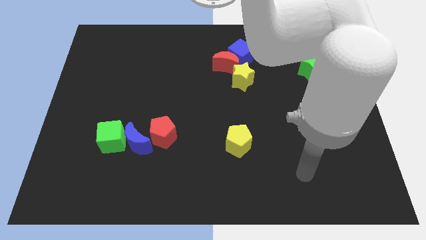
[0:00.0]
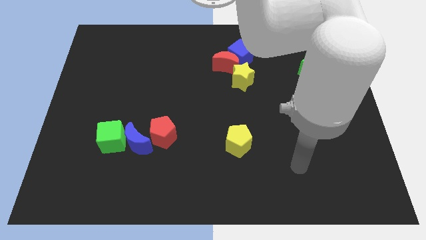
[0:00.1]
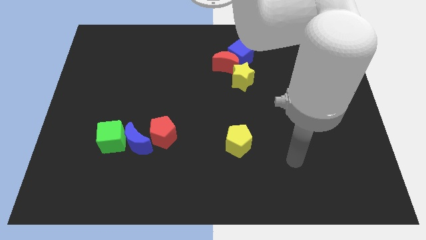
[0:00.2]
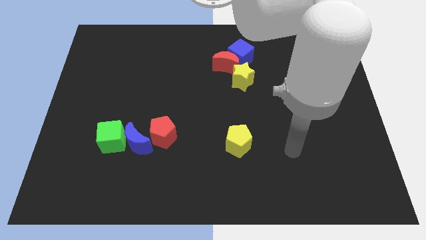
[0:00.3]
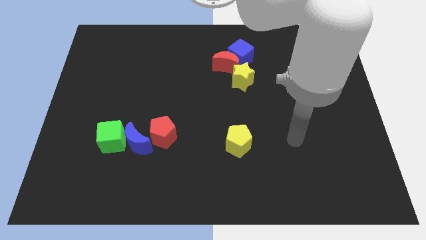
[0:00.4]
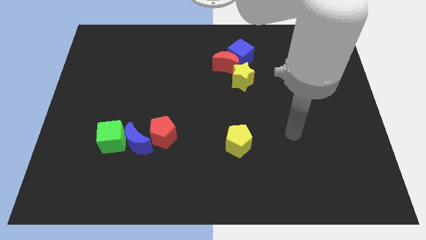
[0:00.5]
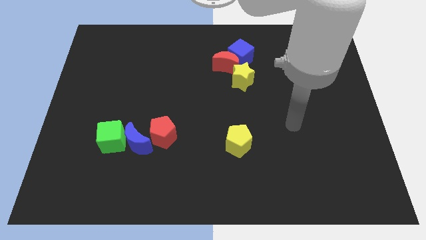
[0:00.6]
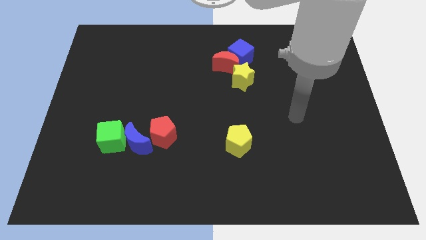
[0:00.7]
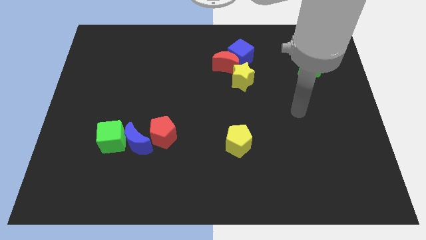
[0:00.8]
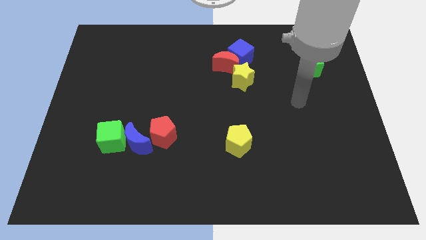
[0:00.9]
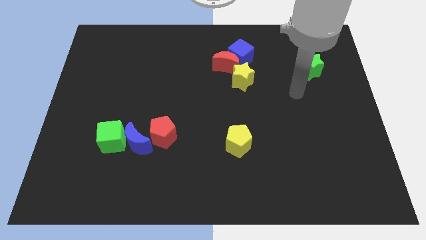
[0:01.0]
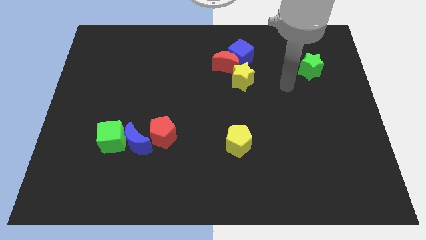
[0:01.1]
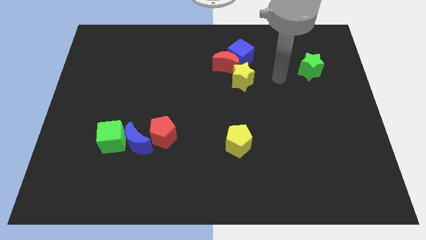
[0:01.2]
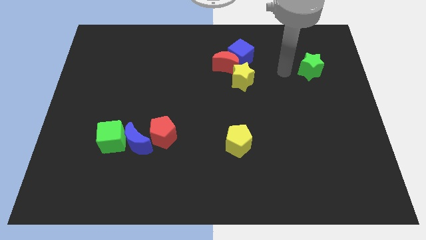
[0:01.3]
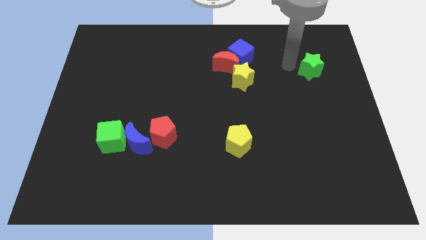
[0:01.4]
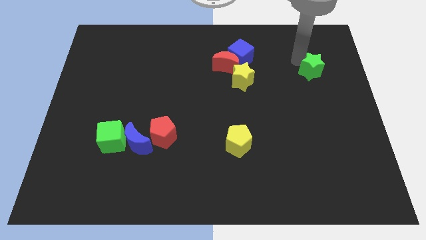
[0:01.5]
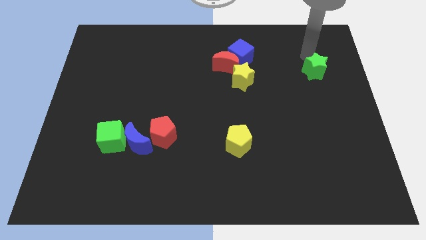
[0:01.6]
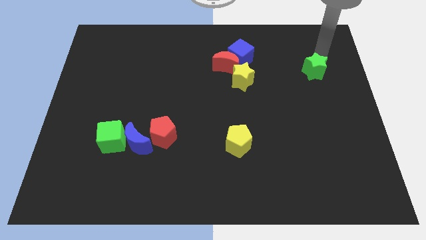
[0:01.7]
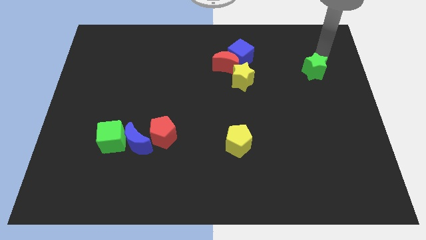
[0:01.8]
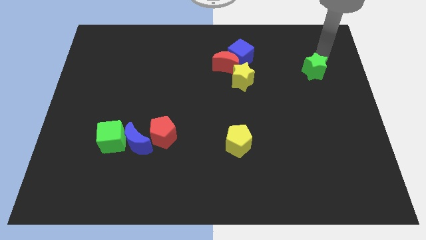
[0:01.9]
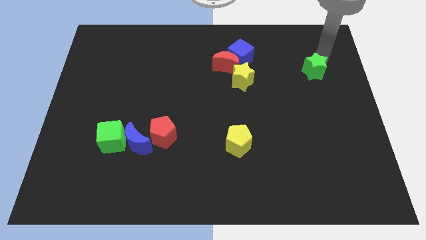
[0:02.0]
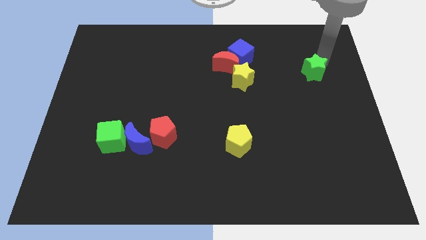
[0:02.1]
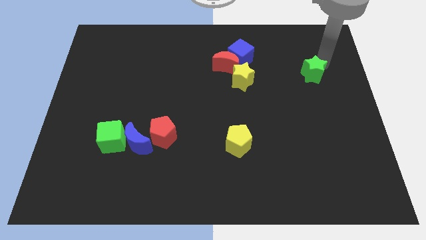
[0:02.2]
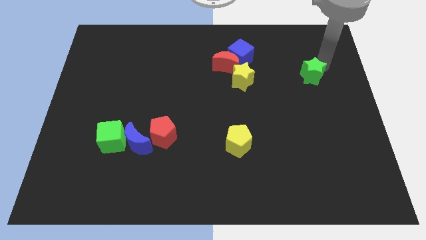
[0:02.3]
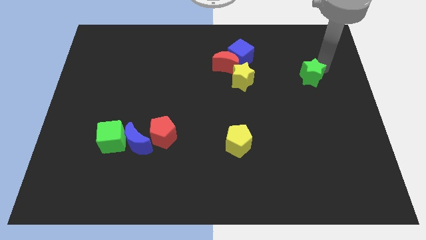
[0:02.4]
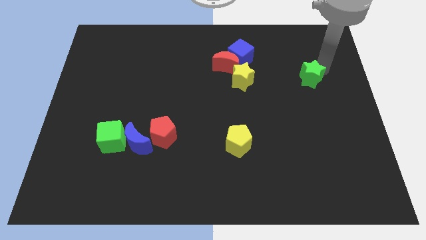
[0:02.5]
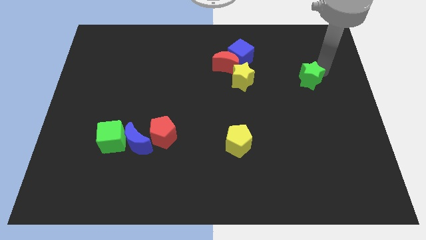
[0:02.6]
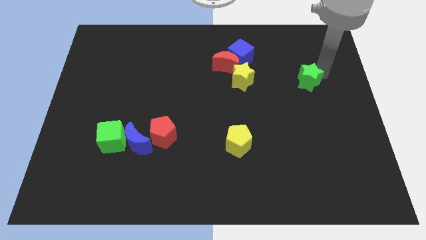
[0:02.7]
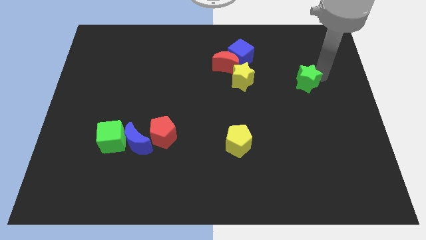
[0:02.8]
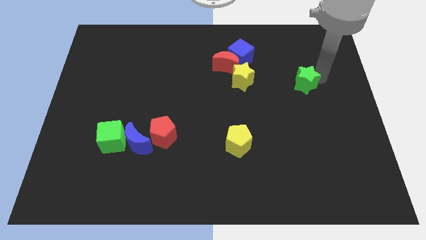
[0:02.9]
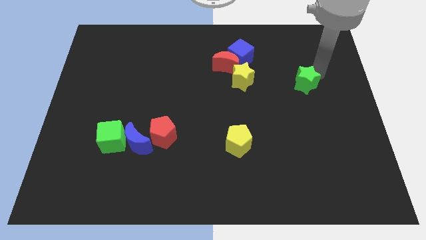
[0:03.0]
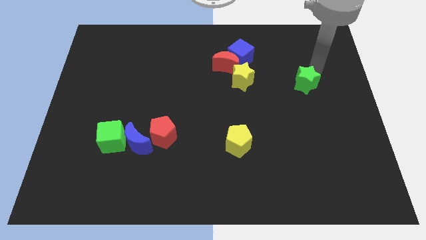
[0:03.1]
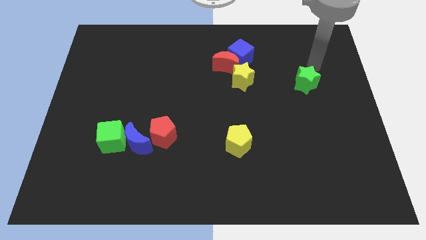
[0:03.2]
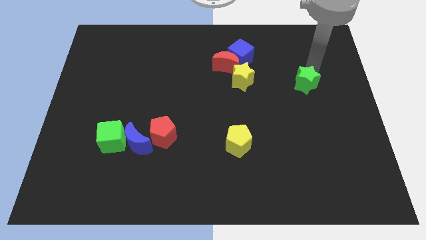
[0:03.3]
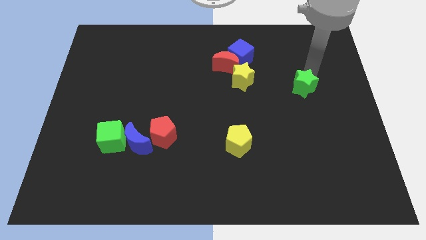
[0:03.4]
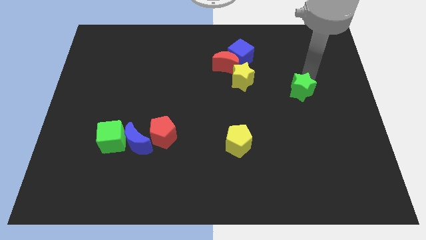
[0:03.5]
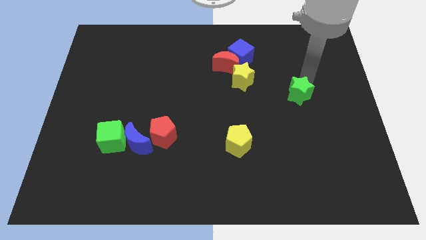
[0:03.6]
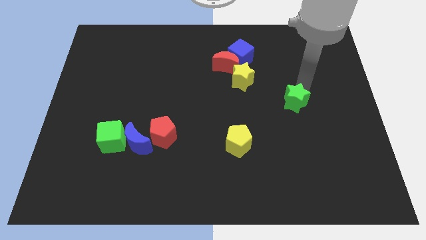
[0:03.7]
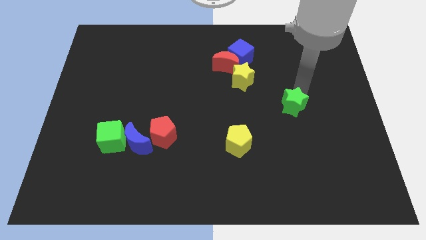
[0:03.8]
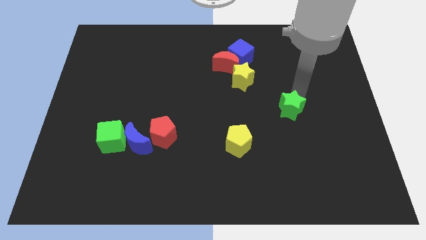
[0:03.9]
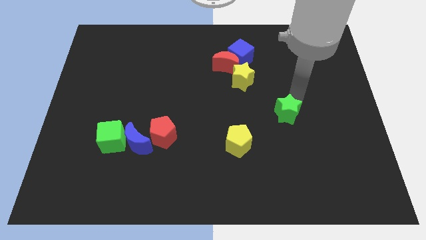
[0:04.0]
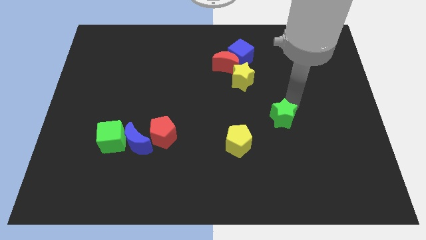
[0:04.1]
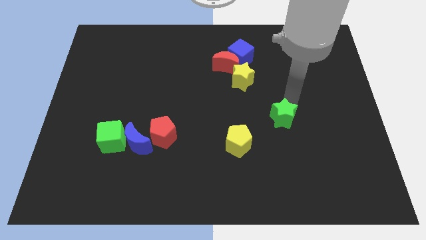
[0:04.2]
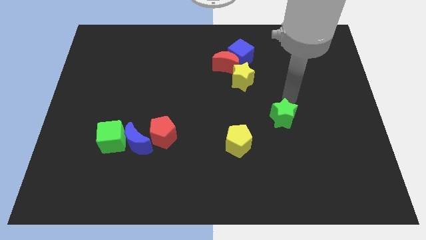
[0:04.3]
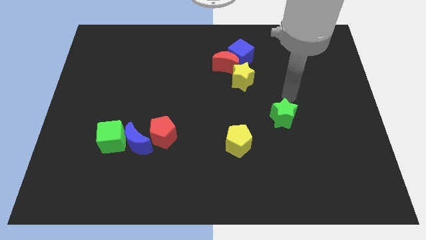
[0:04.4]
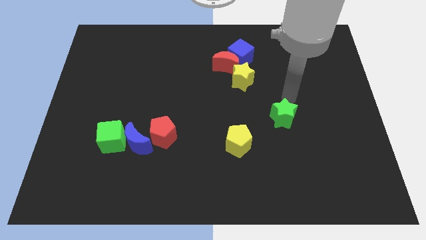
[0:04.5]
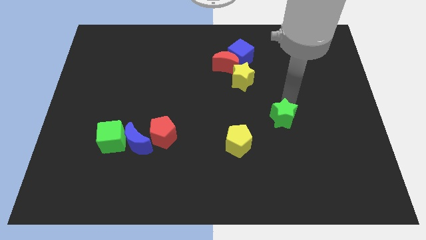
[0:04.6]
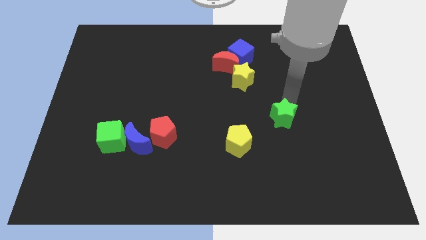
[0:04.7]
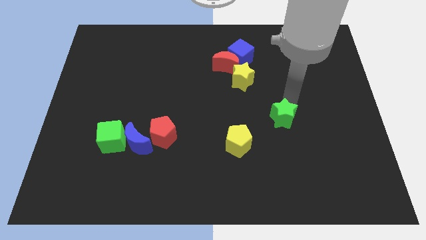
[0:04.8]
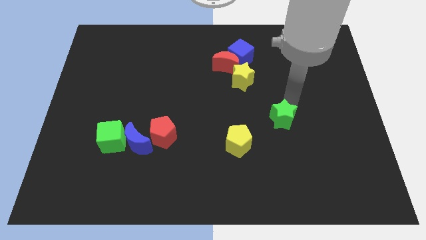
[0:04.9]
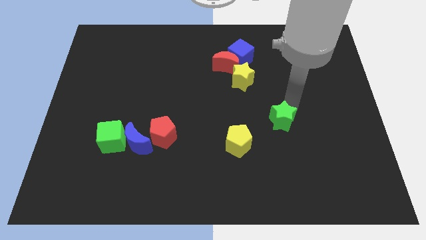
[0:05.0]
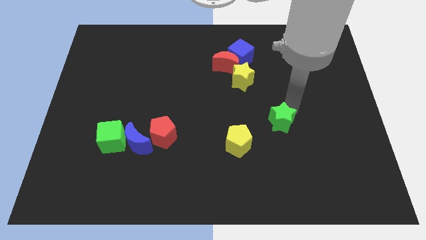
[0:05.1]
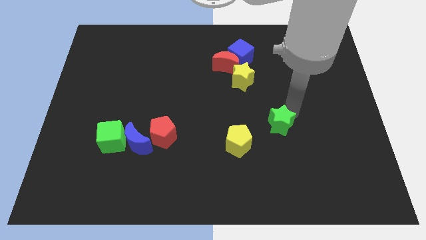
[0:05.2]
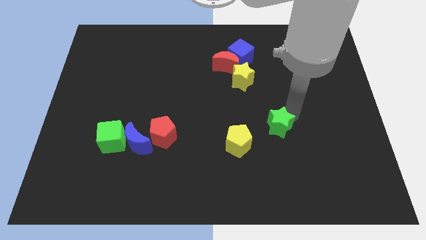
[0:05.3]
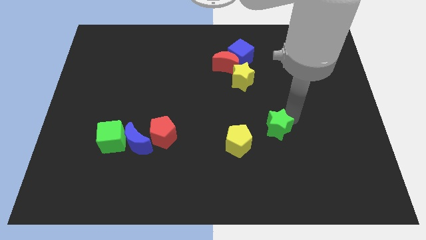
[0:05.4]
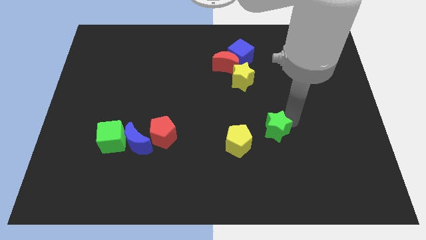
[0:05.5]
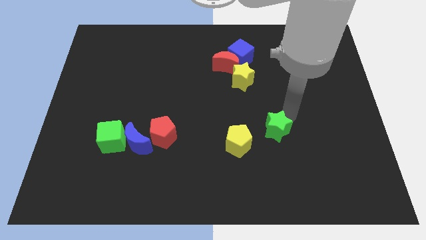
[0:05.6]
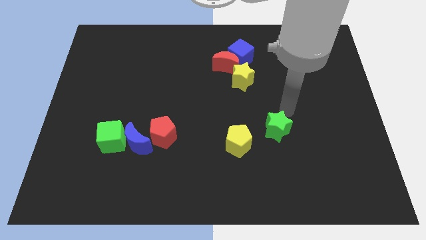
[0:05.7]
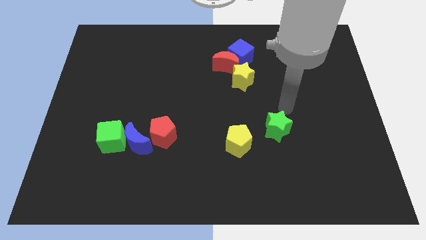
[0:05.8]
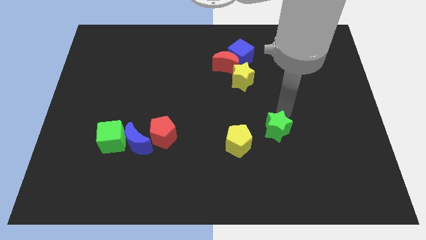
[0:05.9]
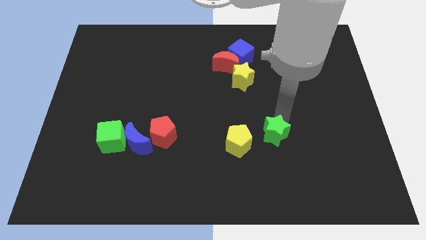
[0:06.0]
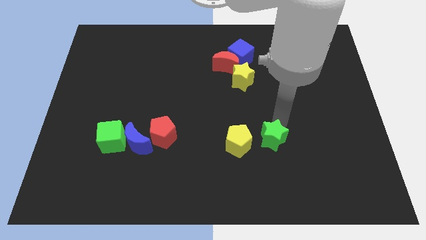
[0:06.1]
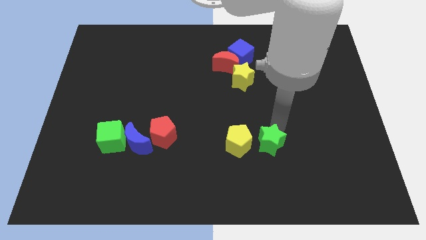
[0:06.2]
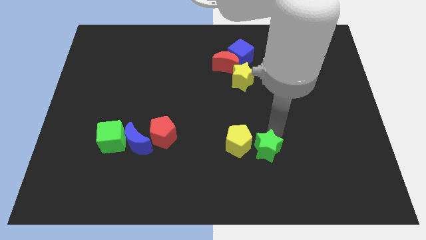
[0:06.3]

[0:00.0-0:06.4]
move the green star to the bottom right side of the yellow pentagon
